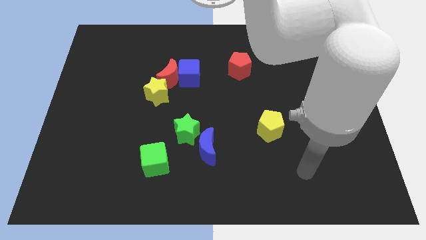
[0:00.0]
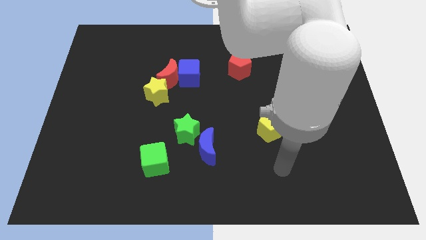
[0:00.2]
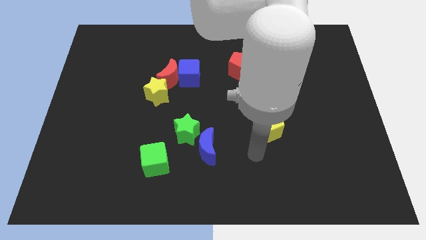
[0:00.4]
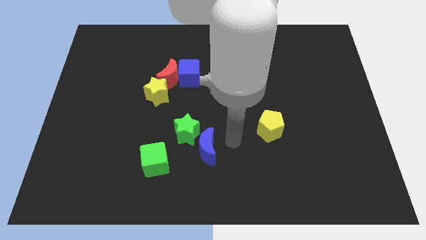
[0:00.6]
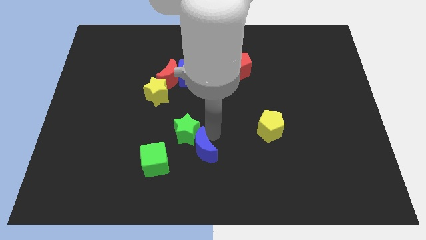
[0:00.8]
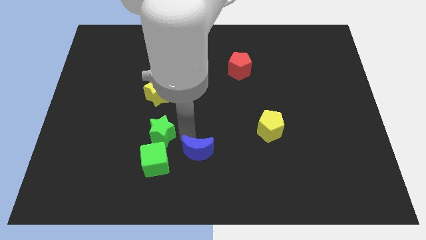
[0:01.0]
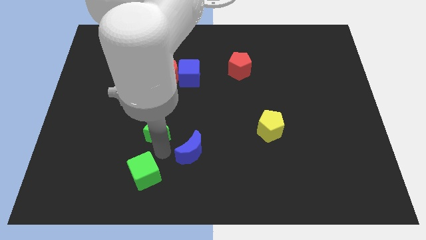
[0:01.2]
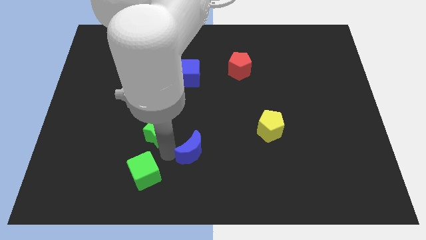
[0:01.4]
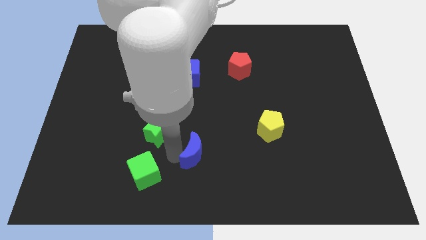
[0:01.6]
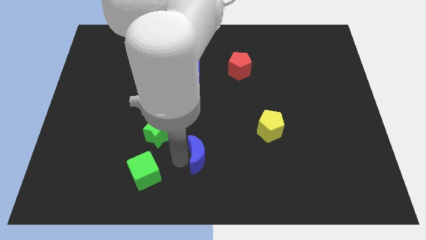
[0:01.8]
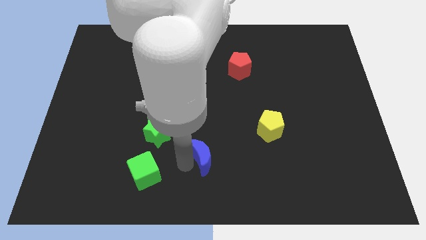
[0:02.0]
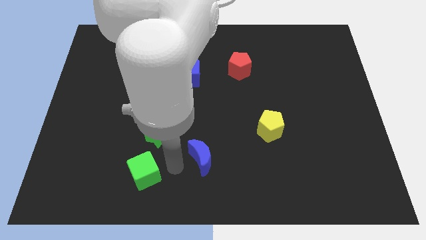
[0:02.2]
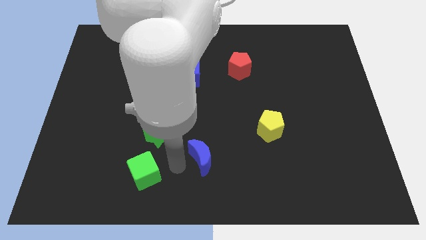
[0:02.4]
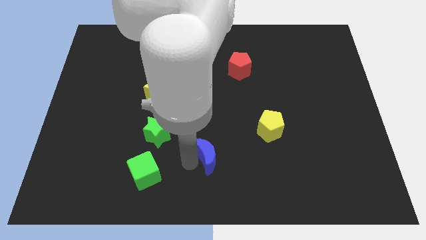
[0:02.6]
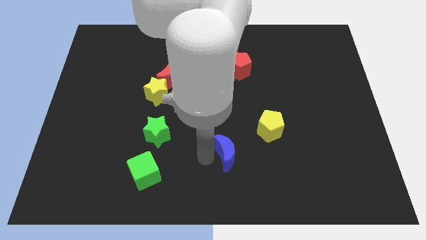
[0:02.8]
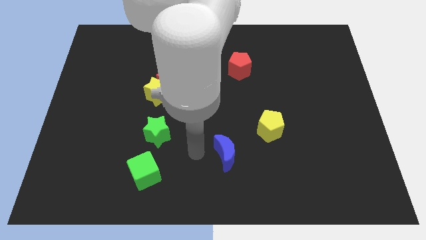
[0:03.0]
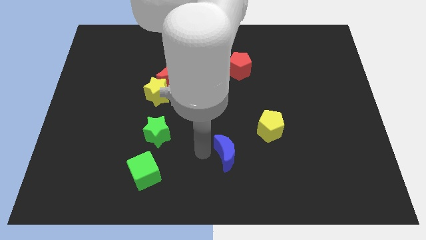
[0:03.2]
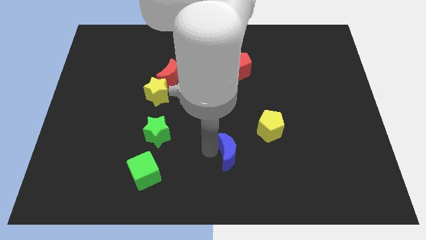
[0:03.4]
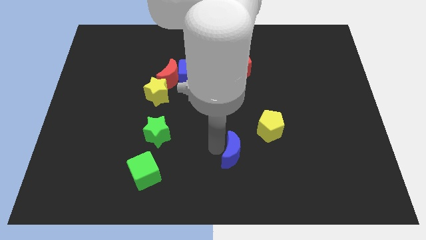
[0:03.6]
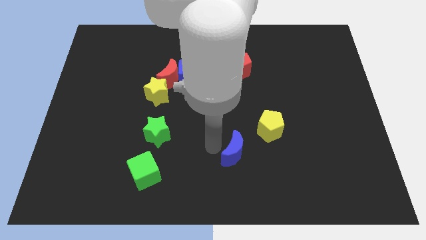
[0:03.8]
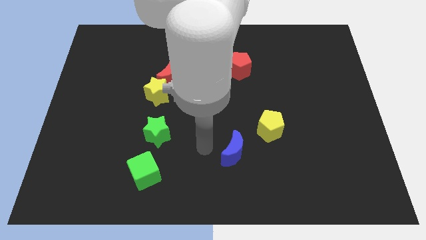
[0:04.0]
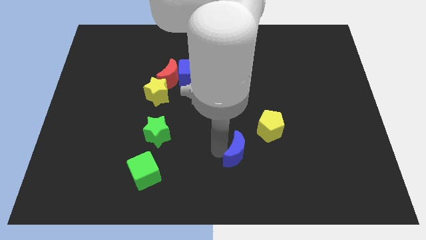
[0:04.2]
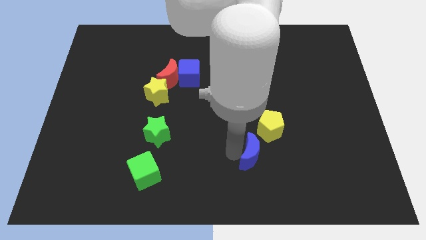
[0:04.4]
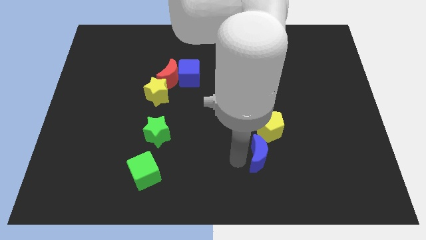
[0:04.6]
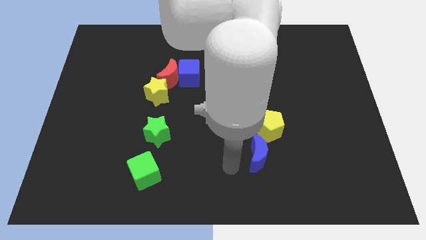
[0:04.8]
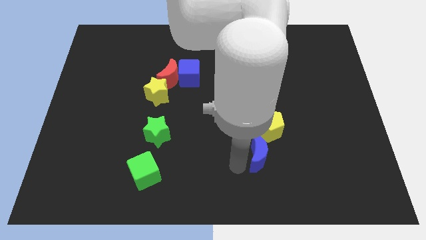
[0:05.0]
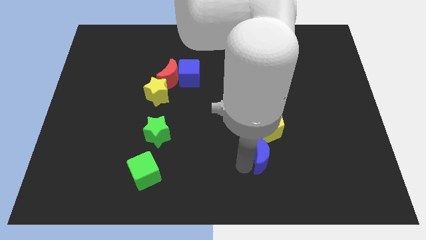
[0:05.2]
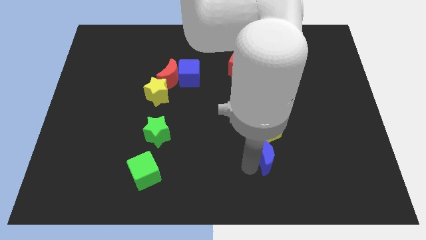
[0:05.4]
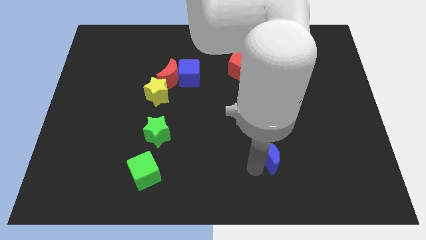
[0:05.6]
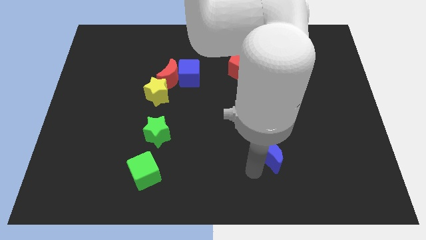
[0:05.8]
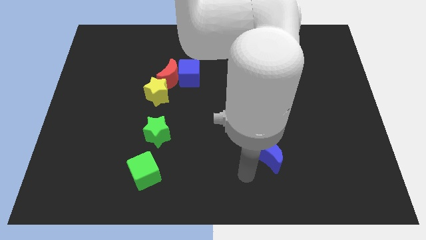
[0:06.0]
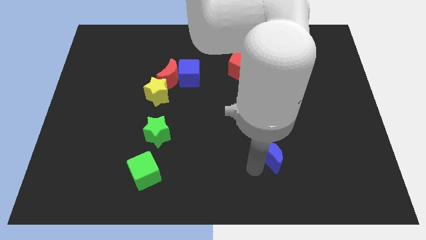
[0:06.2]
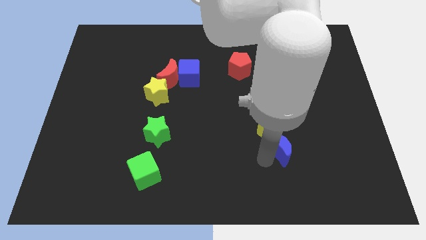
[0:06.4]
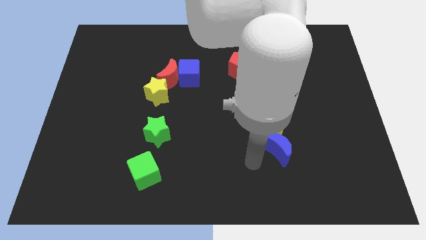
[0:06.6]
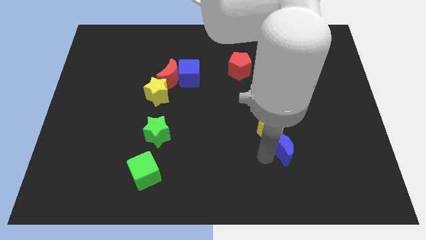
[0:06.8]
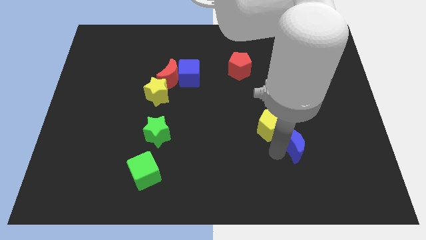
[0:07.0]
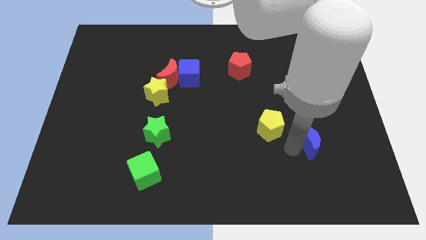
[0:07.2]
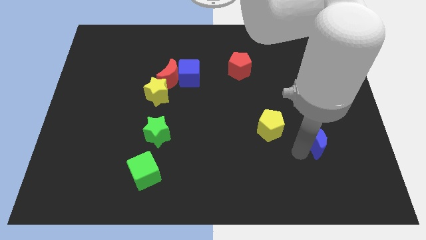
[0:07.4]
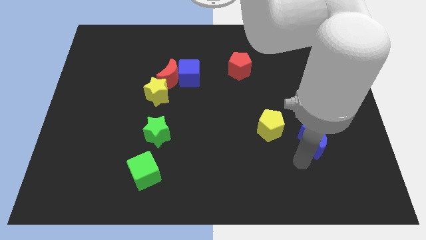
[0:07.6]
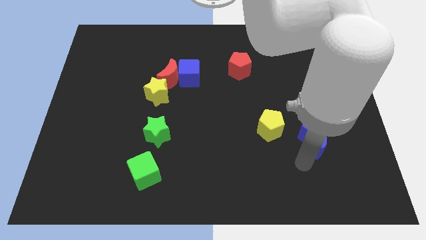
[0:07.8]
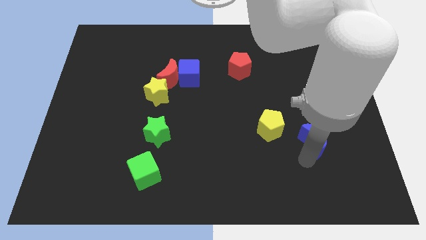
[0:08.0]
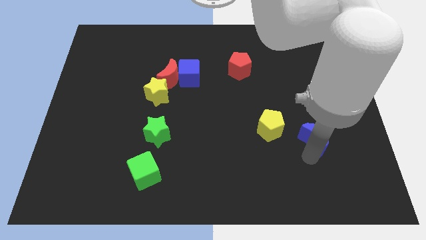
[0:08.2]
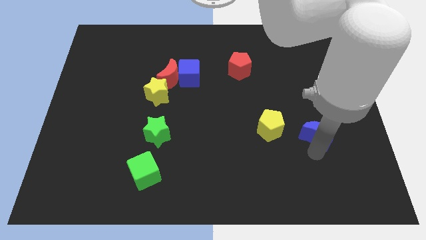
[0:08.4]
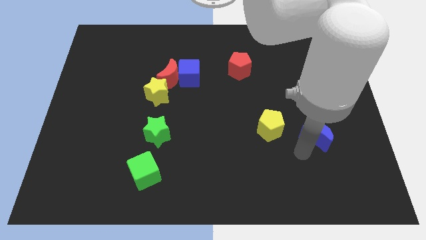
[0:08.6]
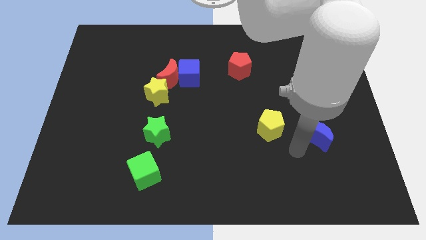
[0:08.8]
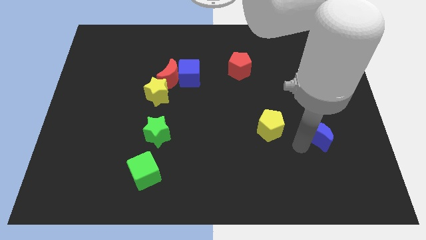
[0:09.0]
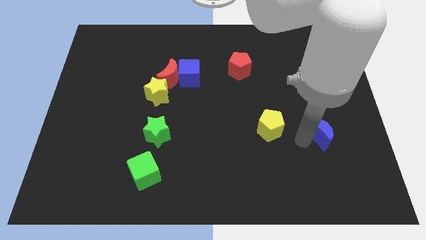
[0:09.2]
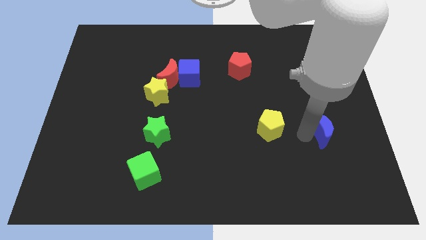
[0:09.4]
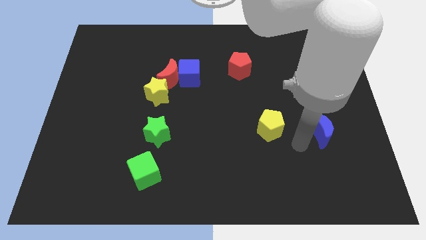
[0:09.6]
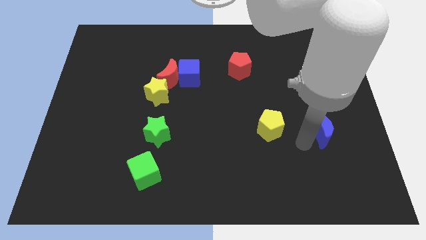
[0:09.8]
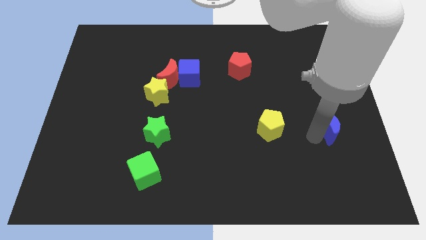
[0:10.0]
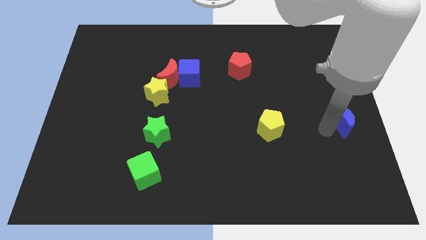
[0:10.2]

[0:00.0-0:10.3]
put the blue moon to the right side

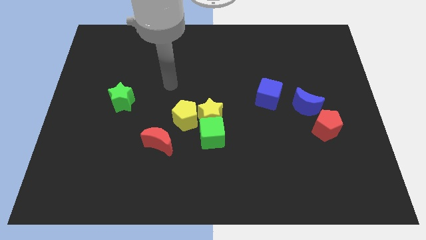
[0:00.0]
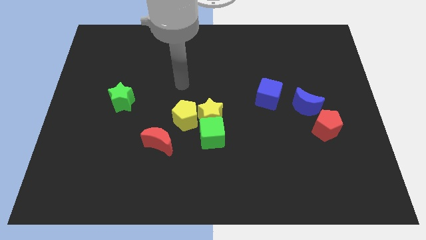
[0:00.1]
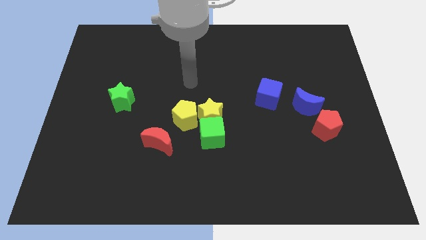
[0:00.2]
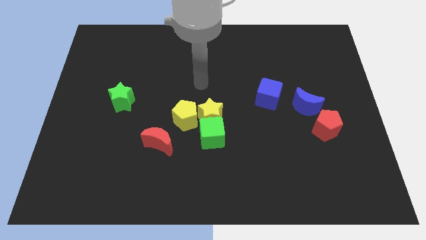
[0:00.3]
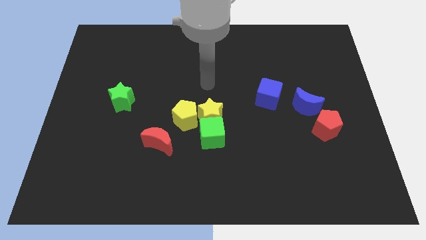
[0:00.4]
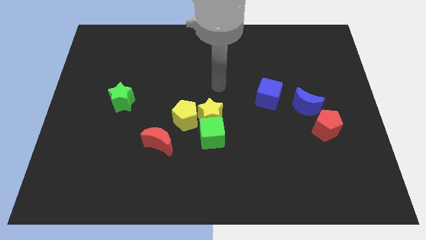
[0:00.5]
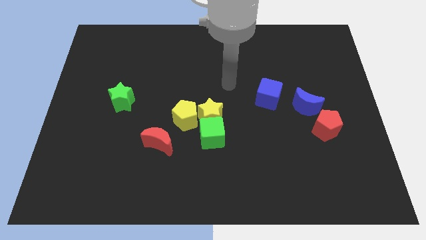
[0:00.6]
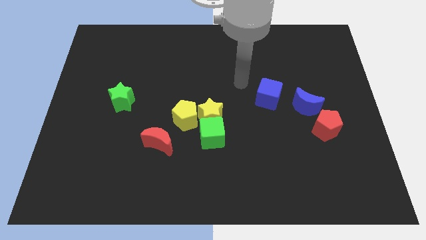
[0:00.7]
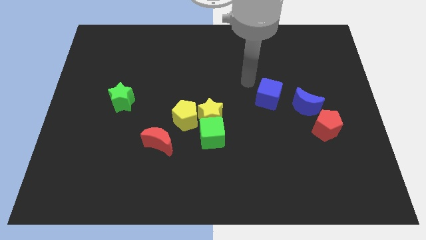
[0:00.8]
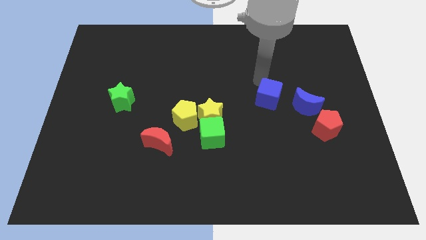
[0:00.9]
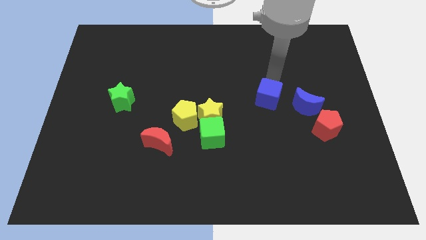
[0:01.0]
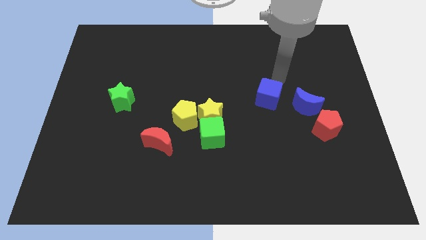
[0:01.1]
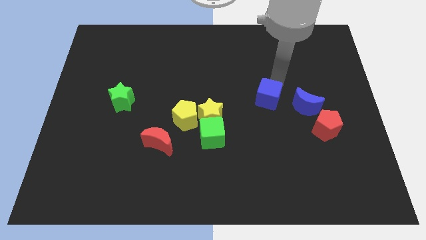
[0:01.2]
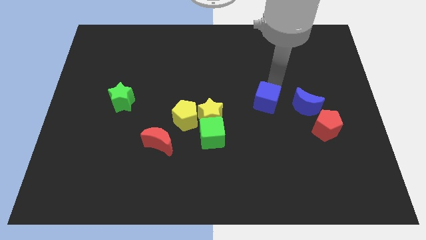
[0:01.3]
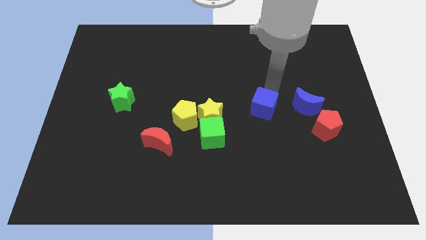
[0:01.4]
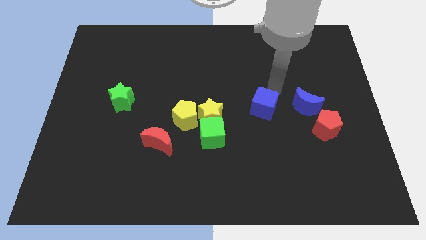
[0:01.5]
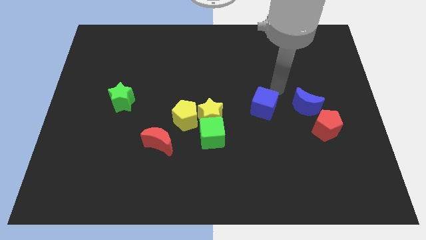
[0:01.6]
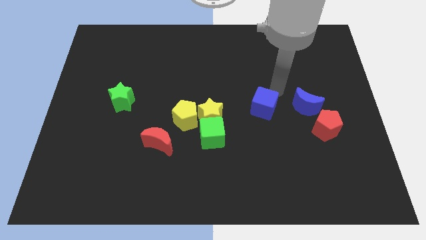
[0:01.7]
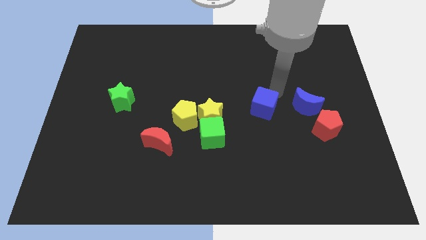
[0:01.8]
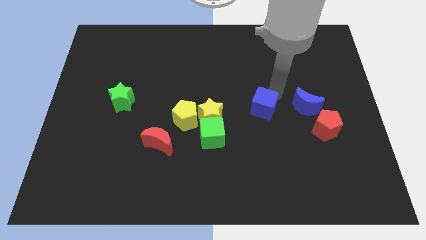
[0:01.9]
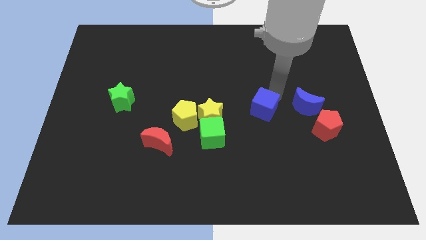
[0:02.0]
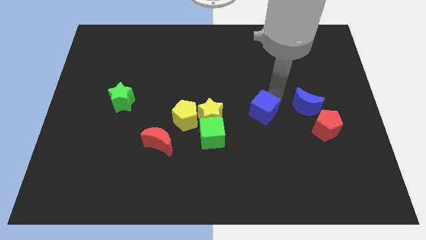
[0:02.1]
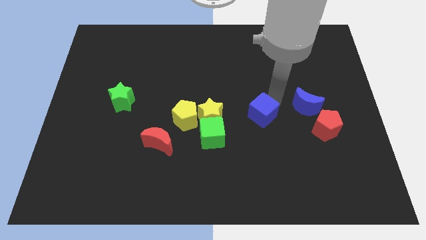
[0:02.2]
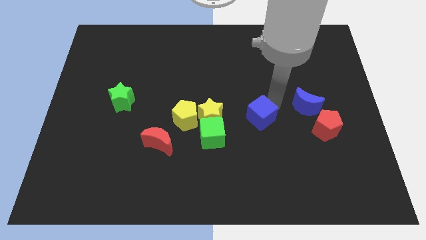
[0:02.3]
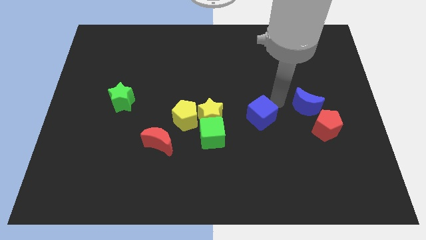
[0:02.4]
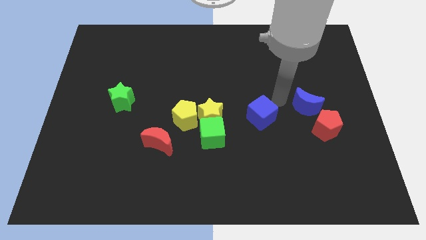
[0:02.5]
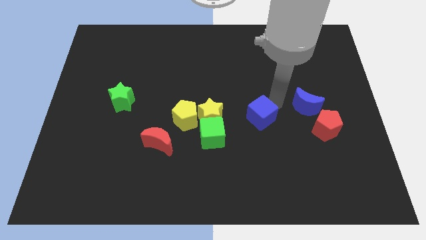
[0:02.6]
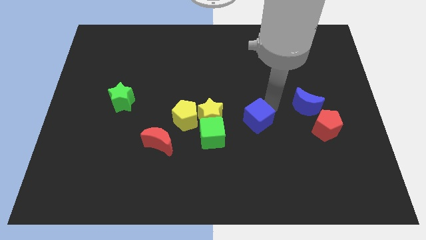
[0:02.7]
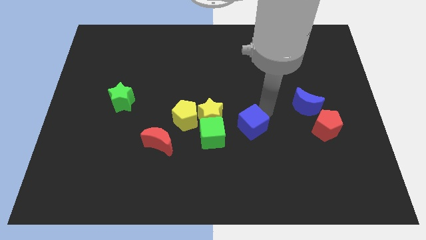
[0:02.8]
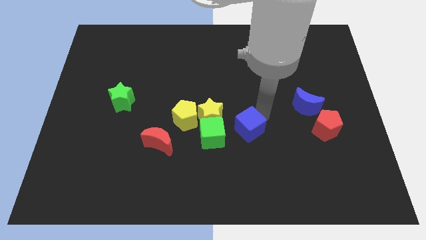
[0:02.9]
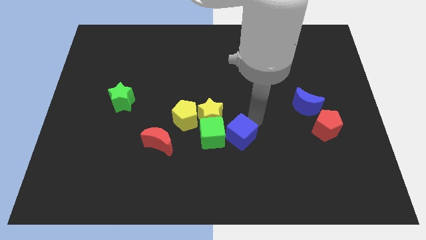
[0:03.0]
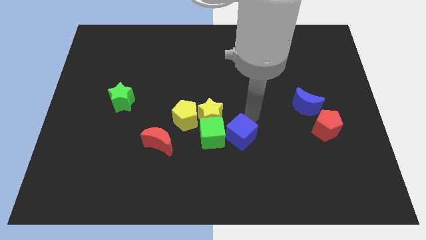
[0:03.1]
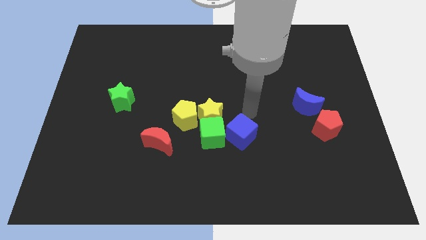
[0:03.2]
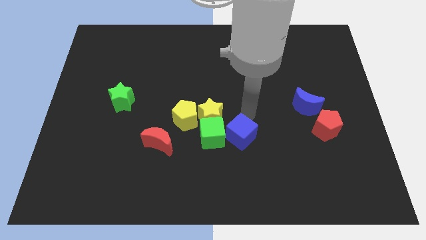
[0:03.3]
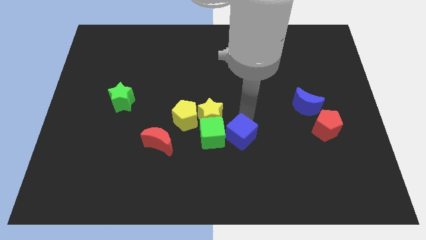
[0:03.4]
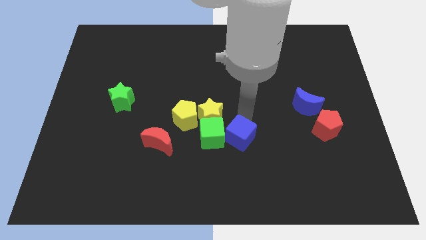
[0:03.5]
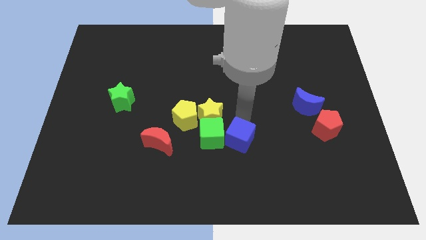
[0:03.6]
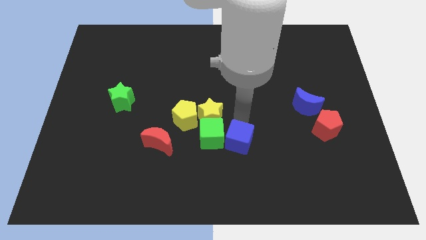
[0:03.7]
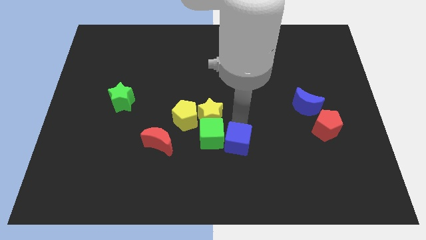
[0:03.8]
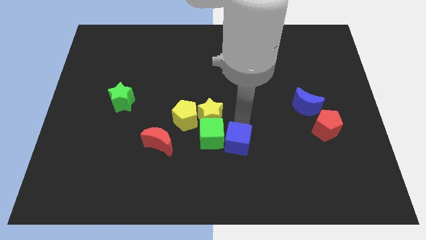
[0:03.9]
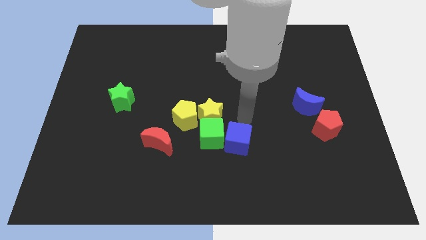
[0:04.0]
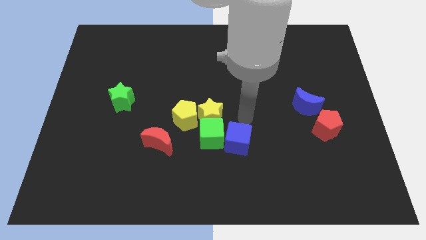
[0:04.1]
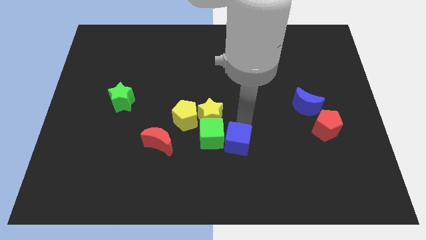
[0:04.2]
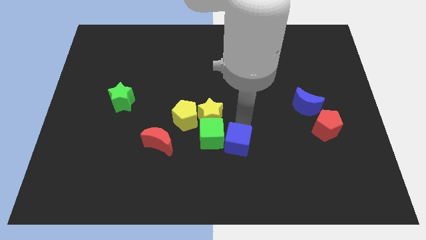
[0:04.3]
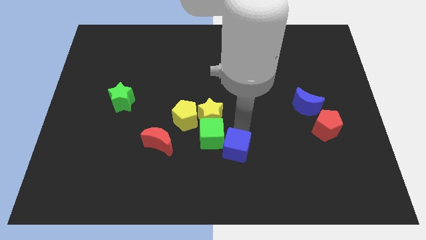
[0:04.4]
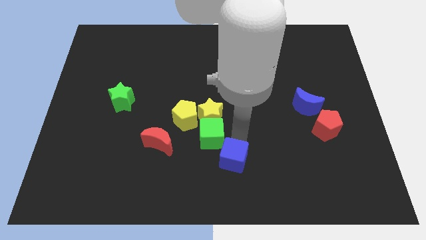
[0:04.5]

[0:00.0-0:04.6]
slide the blue cube to the bottom side
